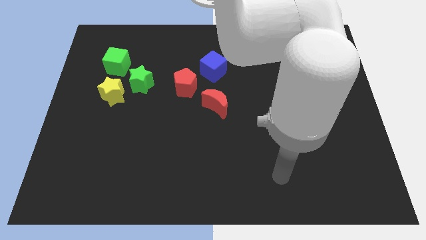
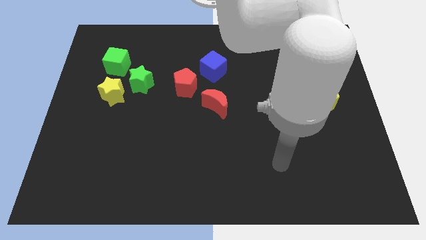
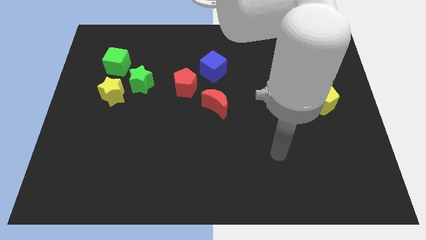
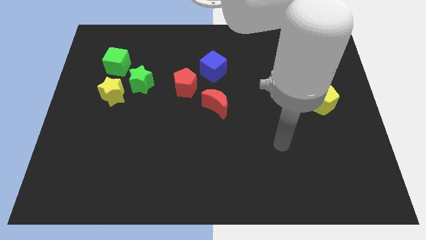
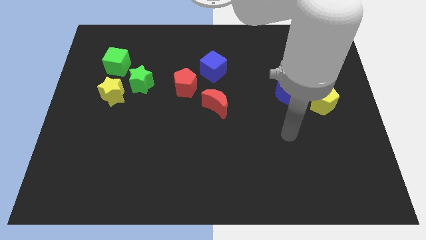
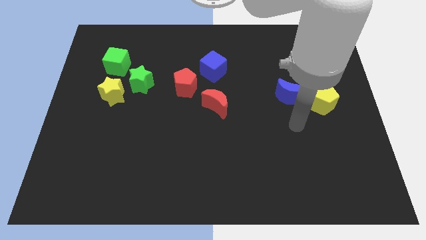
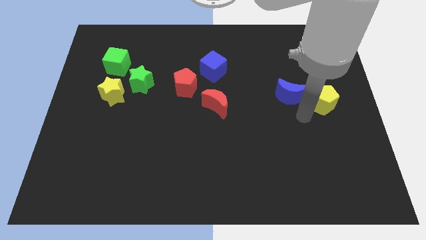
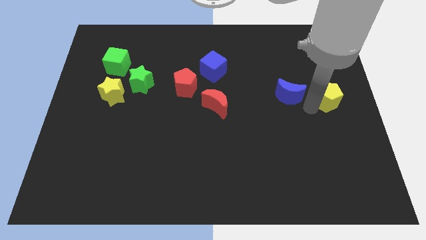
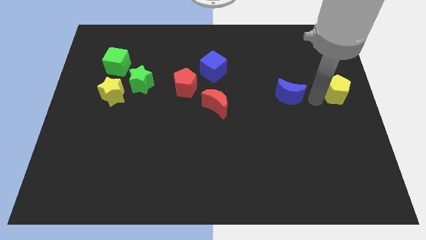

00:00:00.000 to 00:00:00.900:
move the blue moon away from the yellow pentagon

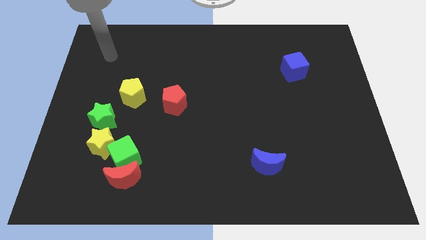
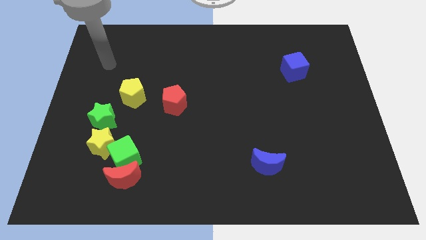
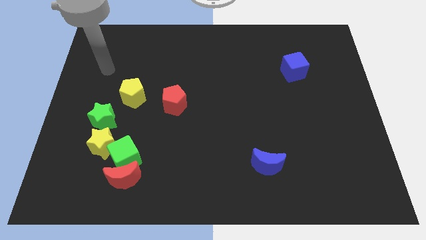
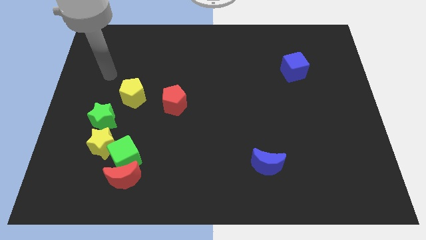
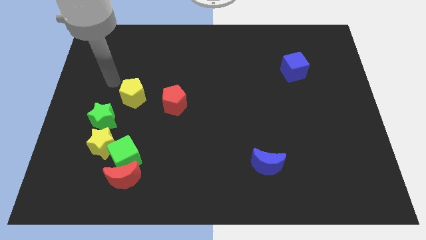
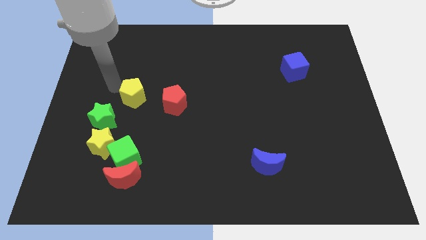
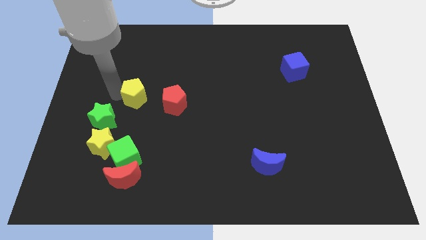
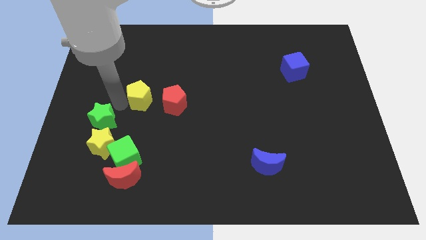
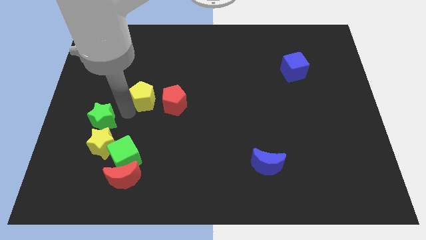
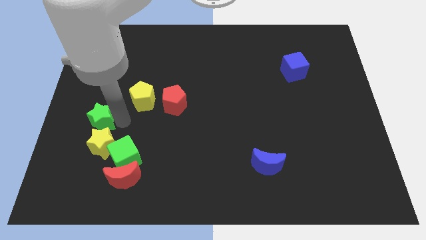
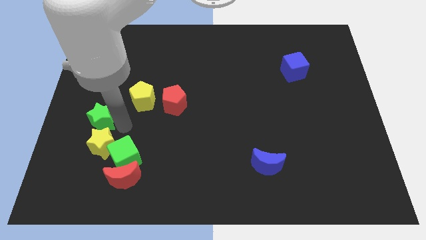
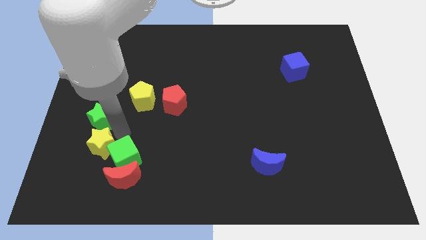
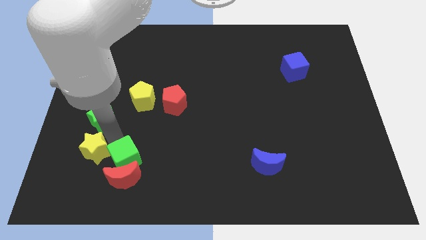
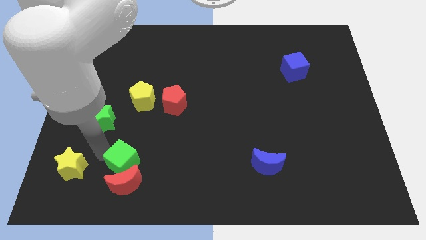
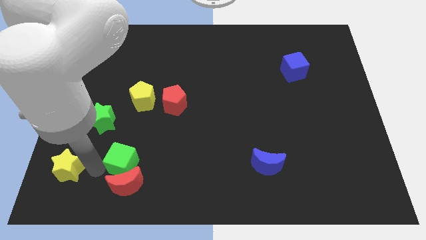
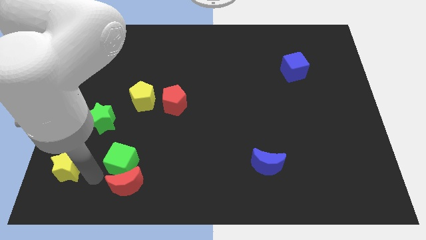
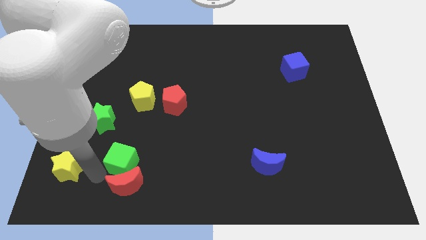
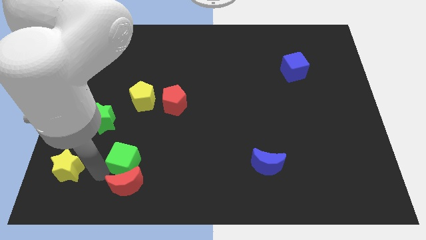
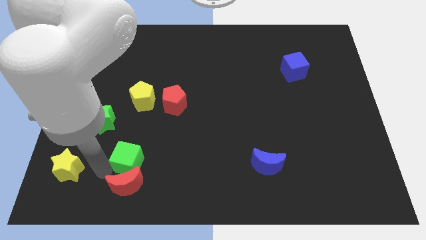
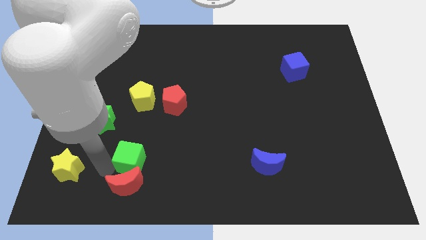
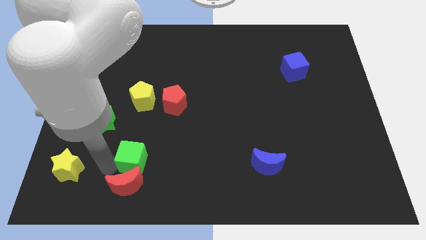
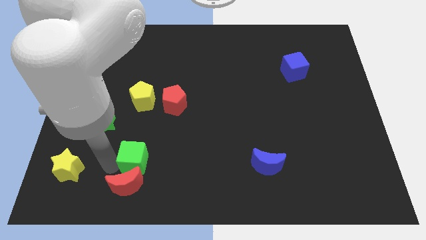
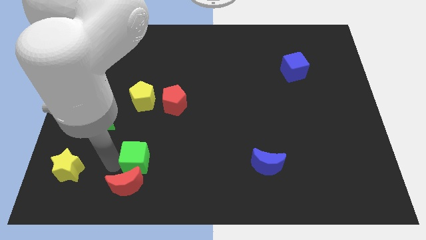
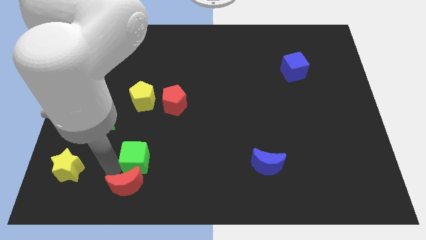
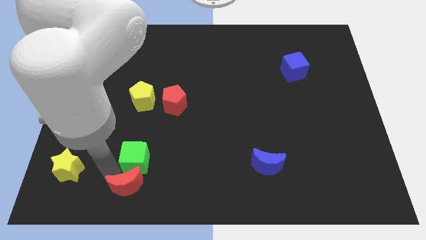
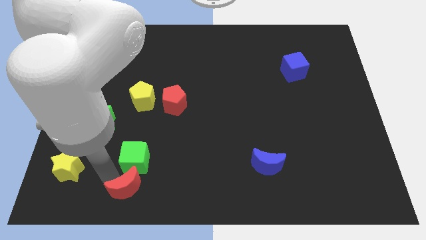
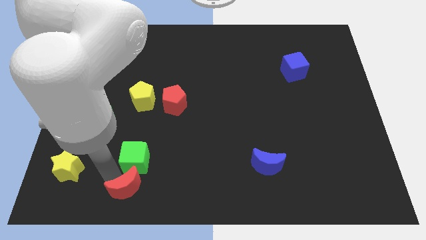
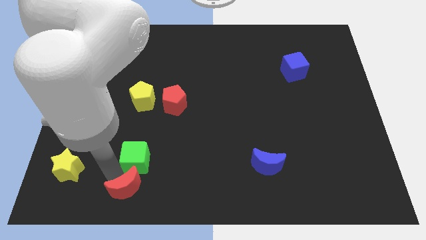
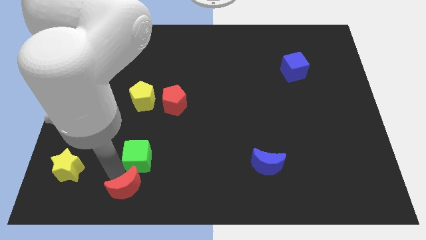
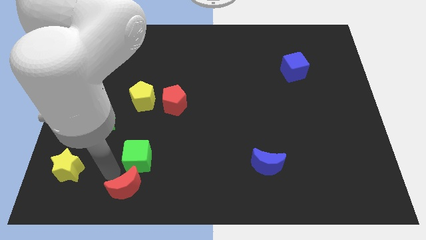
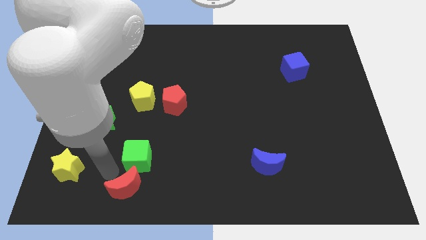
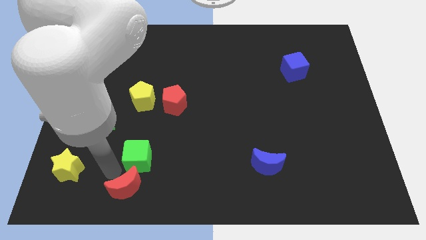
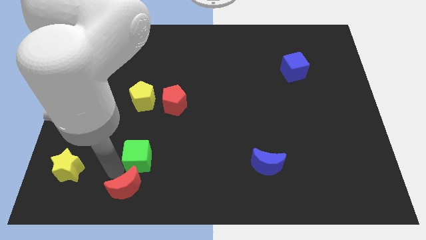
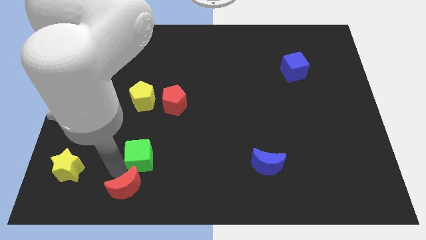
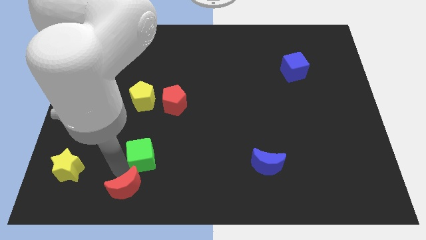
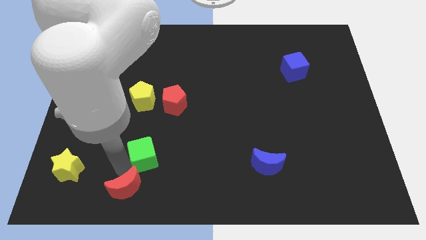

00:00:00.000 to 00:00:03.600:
separate the green cube from the red moon and yellow star

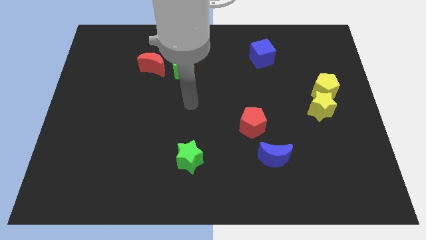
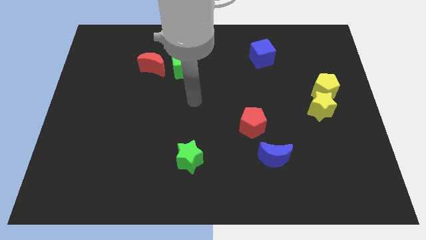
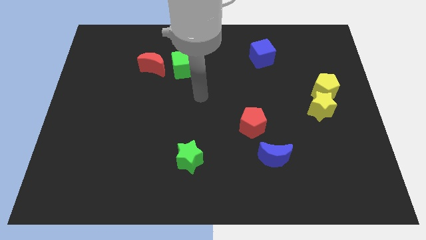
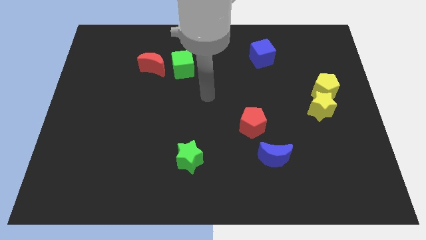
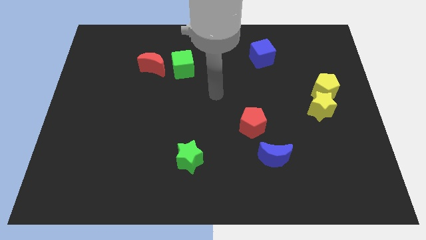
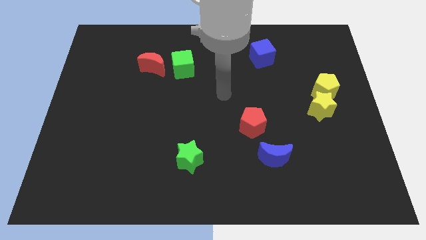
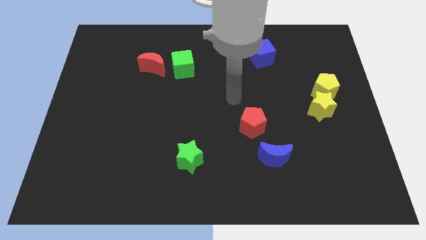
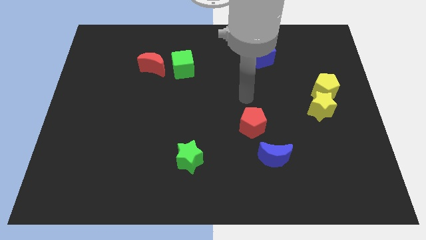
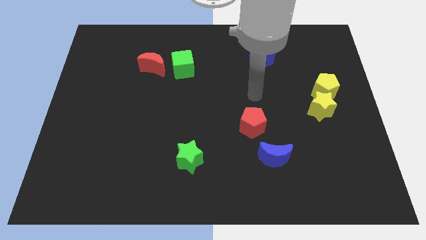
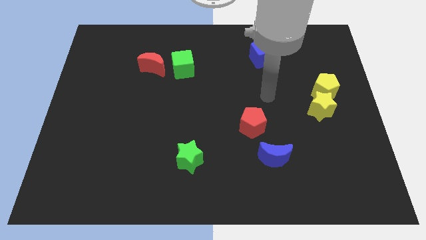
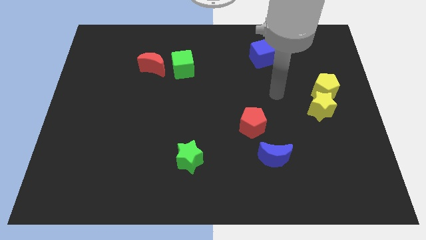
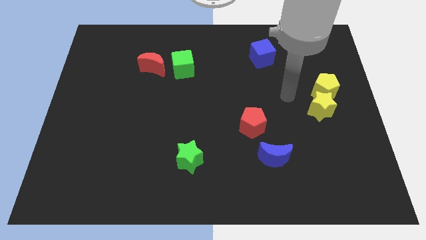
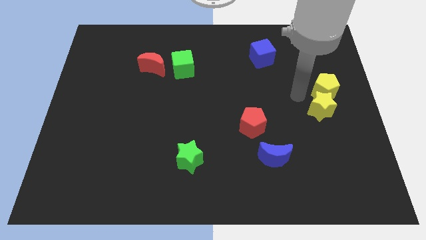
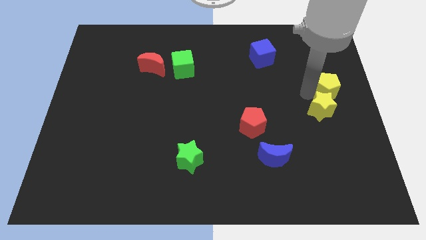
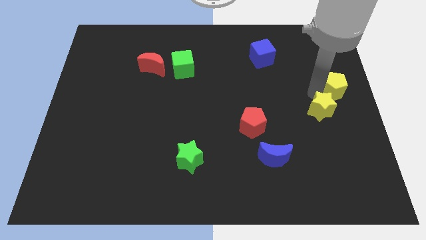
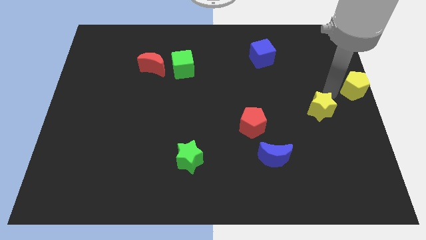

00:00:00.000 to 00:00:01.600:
pull the yellow star apart from the yellow pentagon

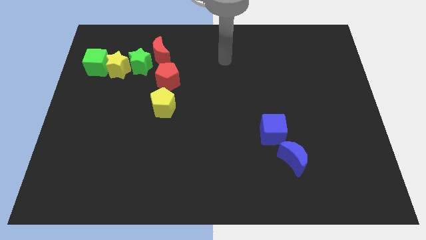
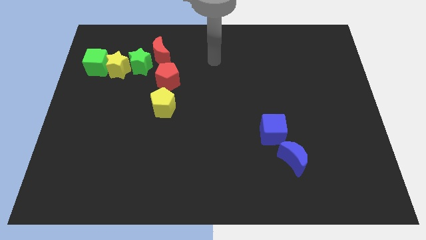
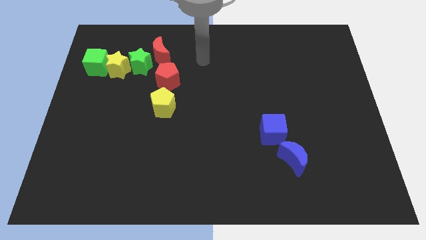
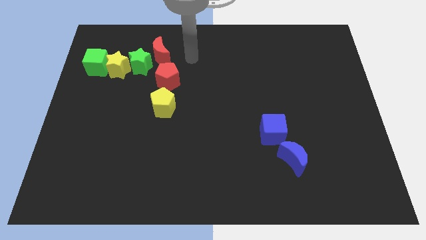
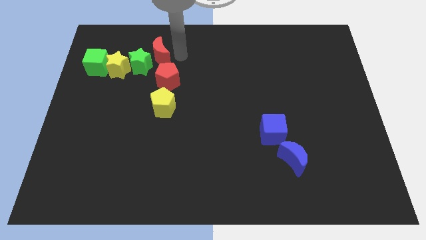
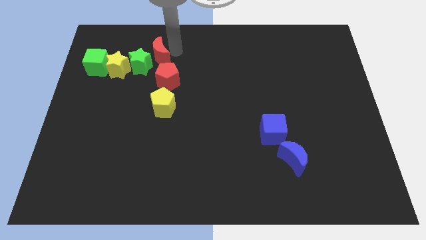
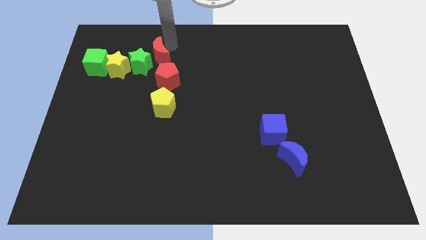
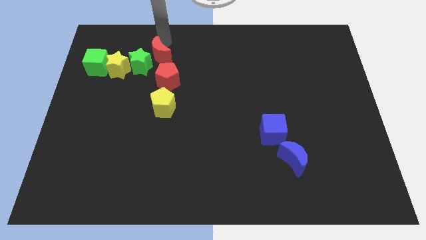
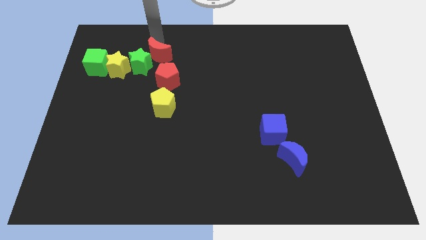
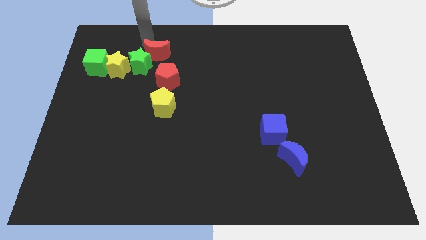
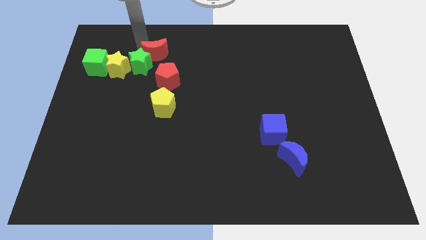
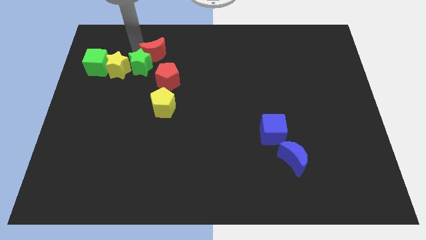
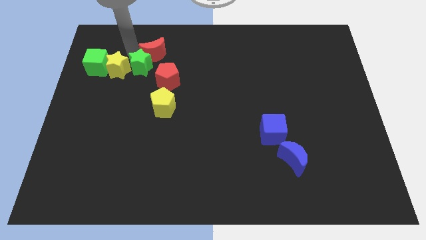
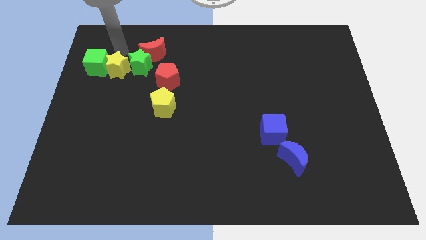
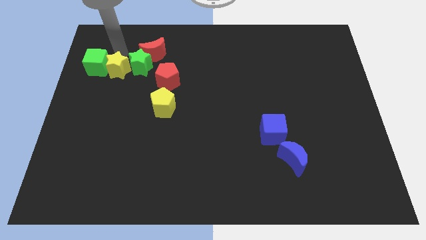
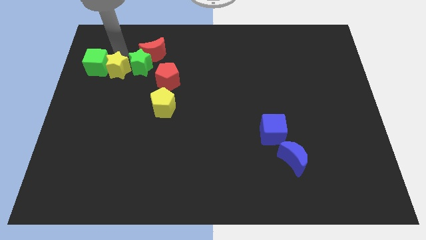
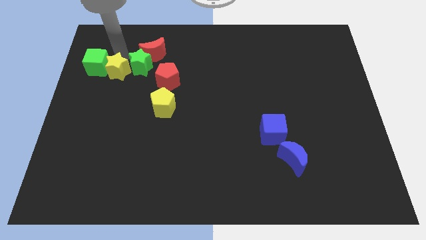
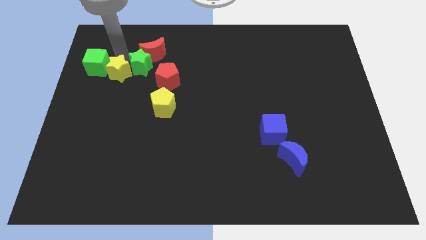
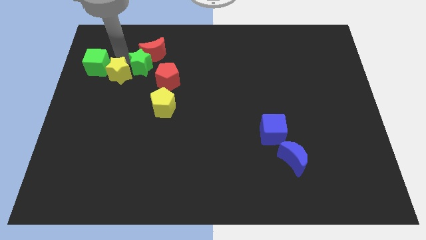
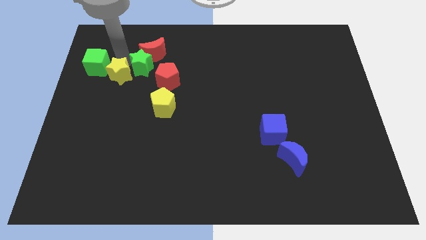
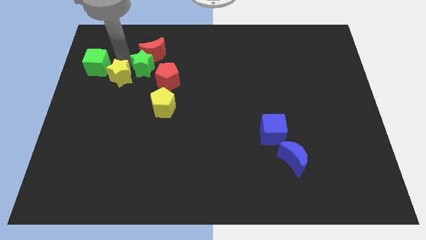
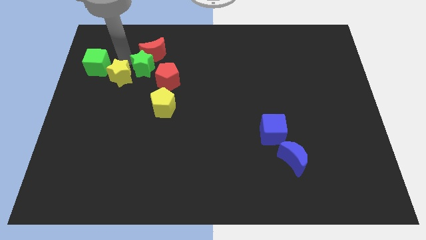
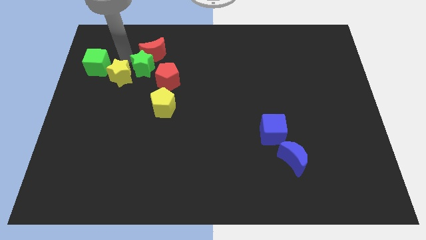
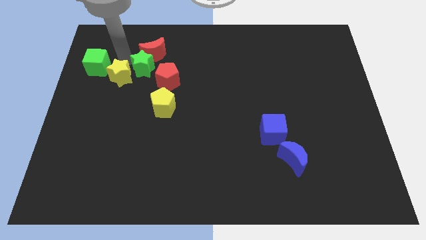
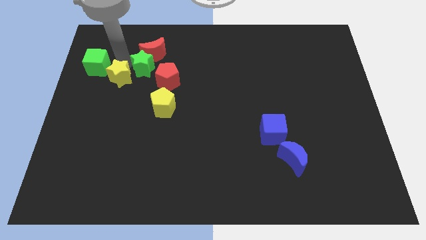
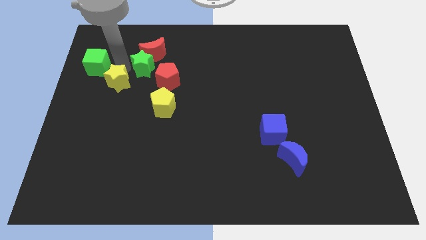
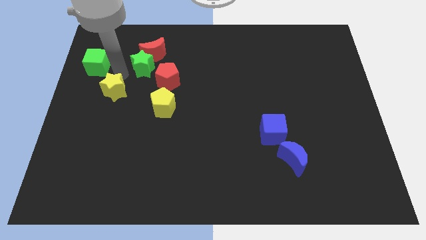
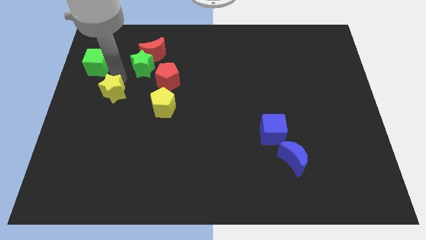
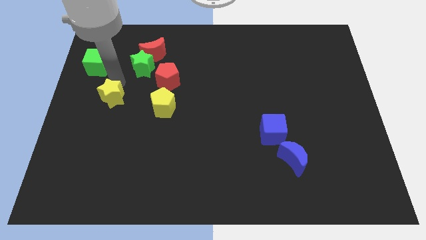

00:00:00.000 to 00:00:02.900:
move the yellow star away from the green star and green cube

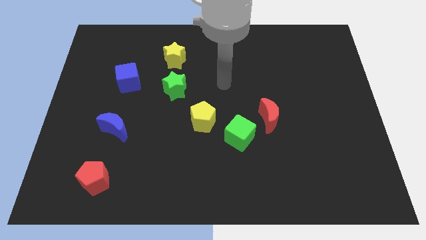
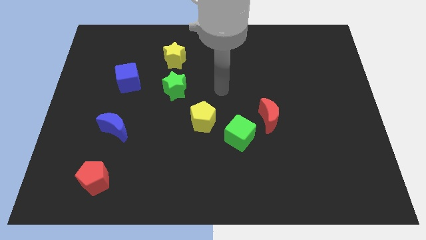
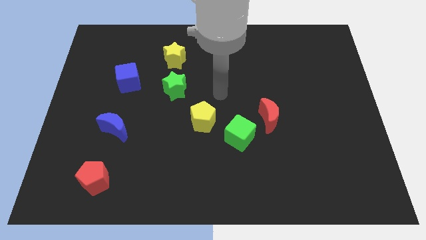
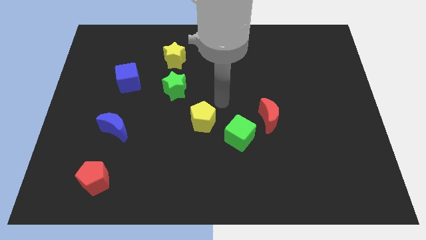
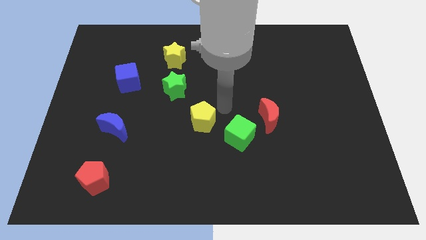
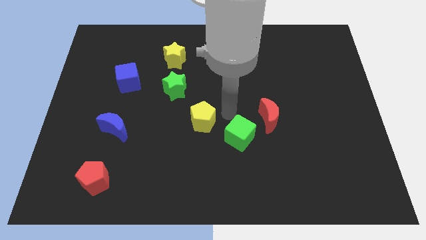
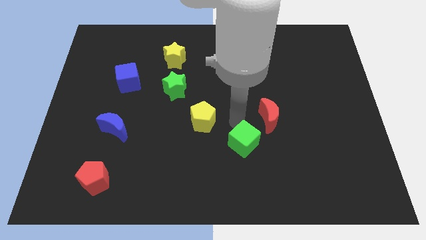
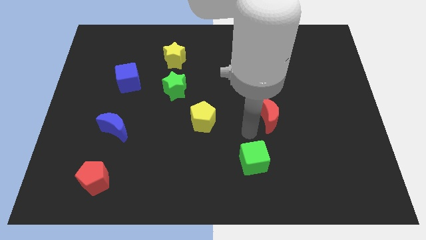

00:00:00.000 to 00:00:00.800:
pull the red moon apart from the green cube
